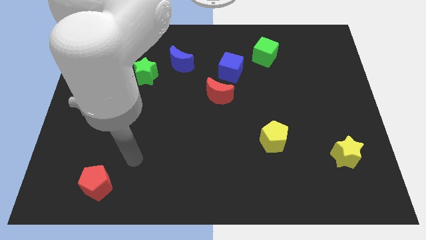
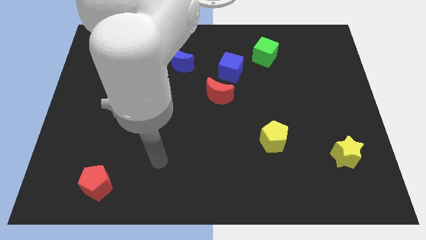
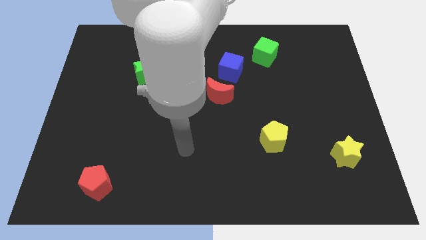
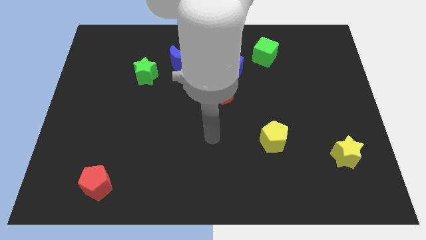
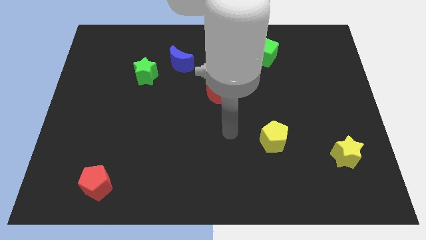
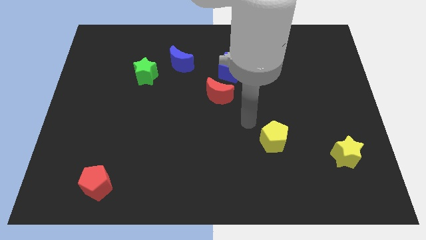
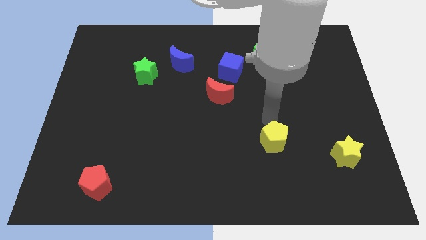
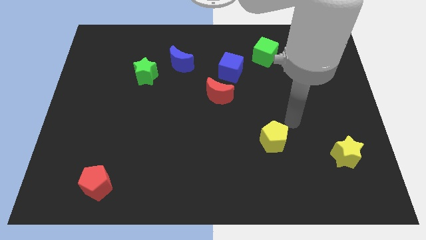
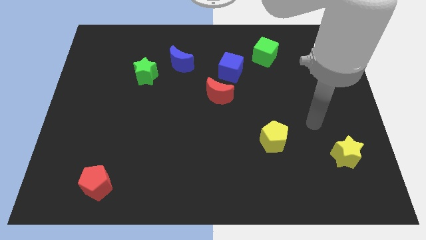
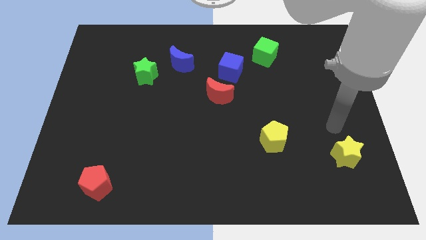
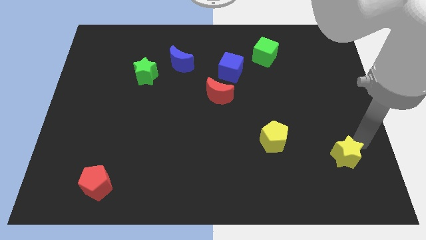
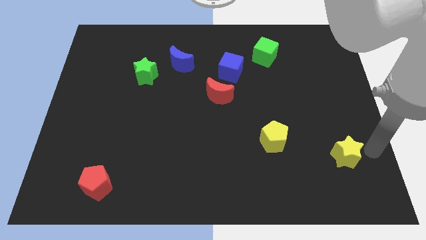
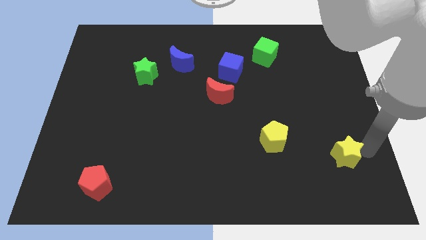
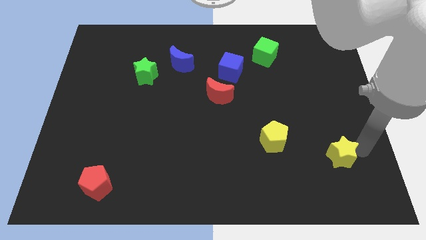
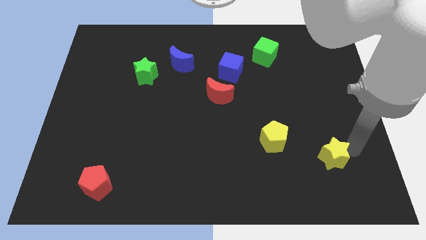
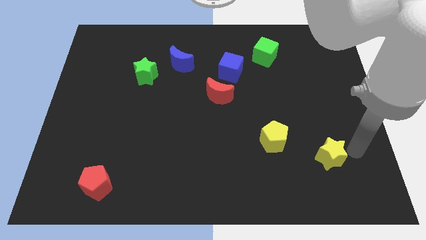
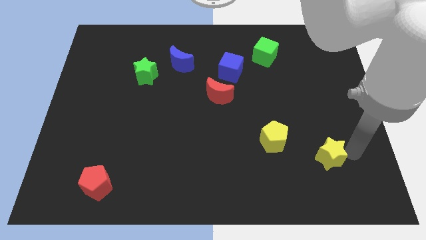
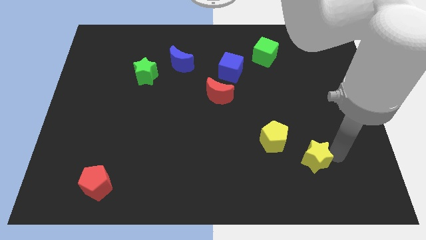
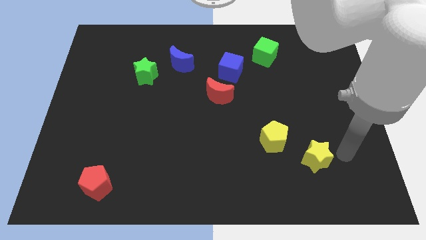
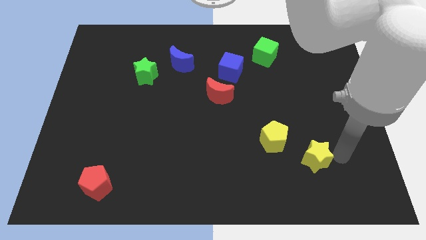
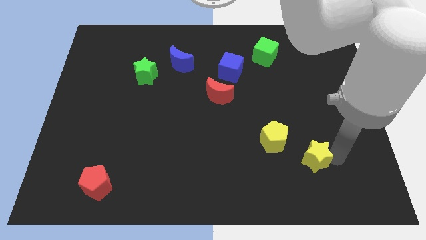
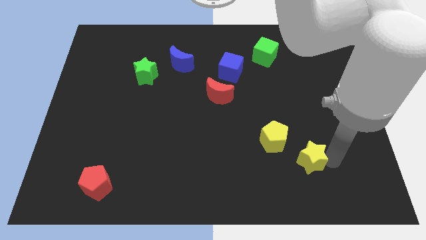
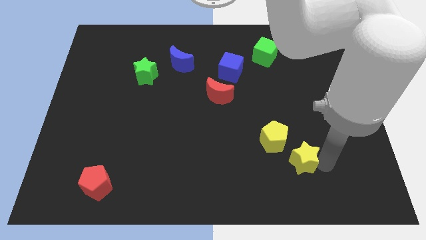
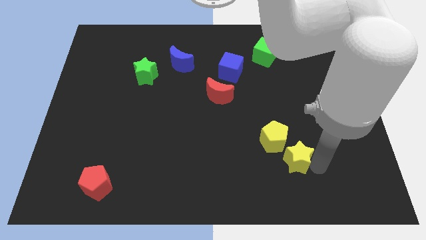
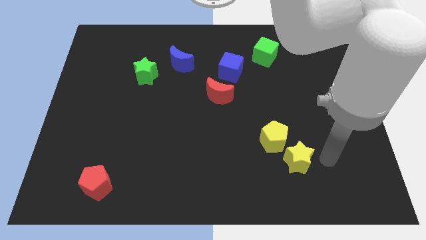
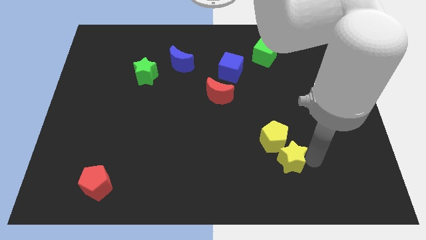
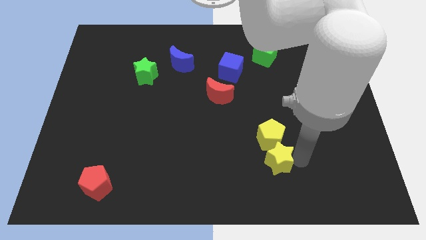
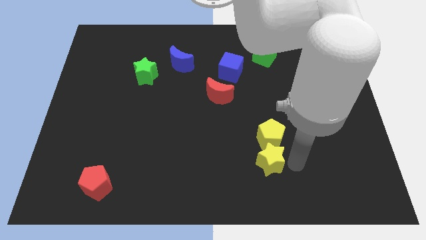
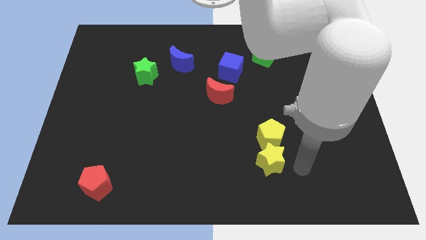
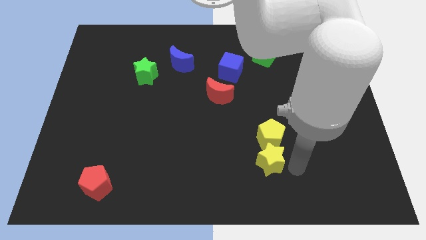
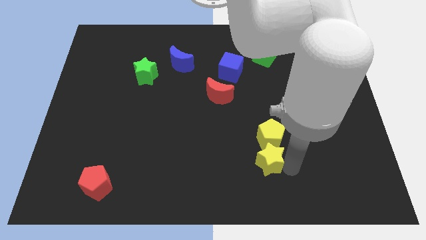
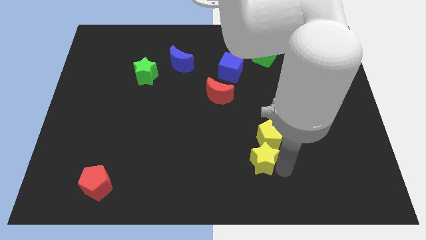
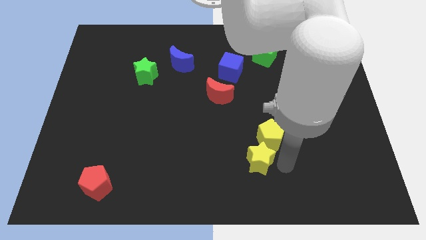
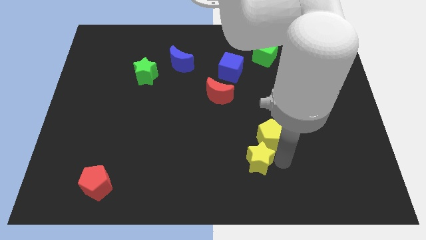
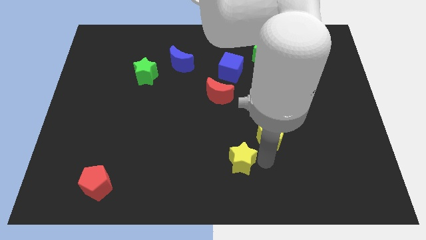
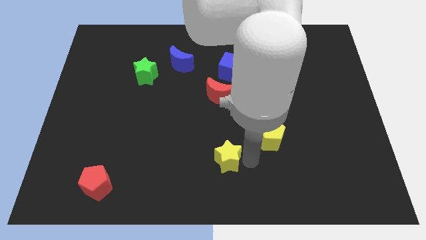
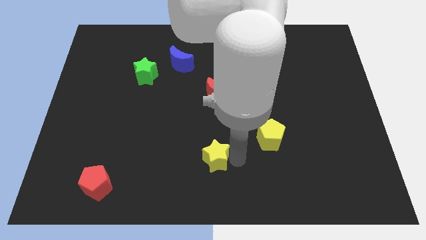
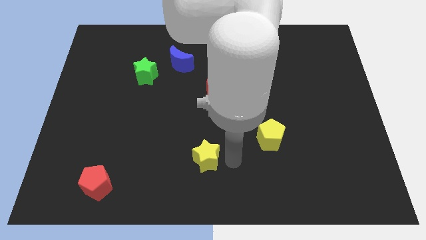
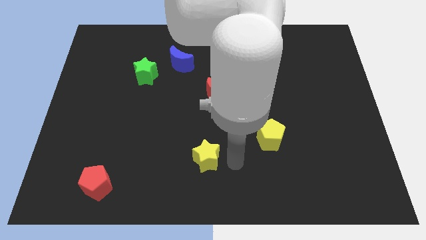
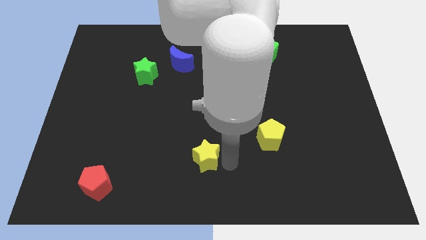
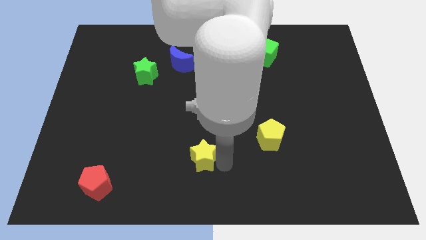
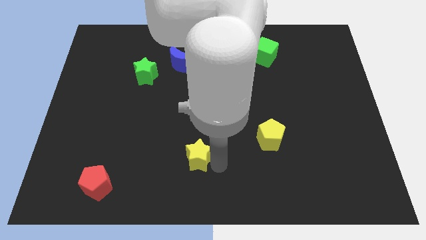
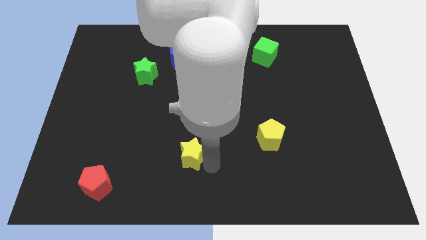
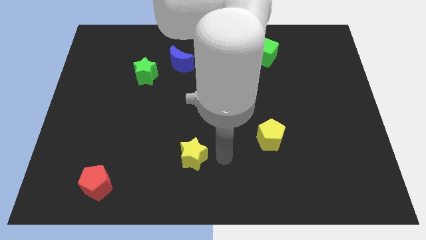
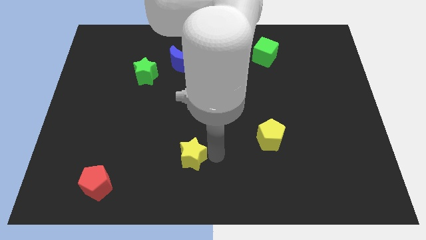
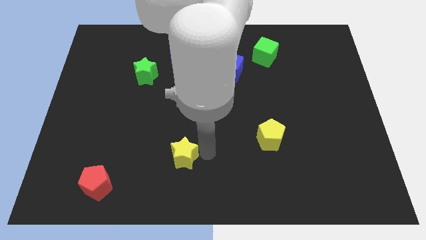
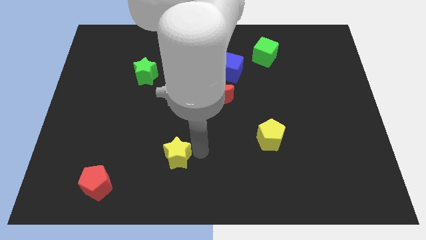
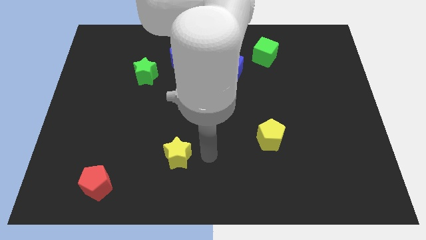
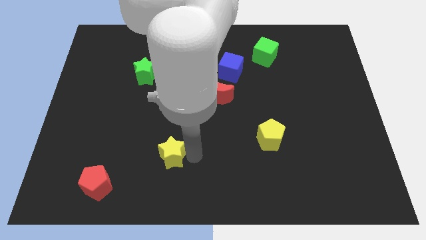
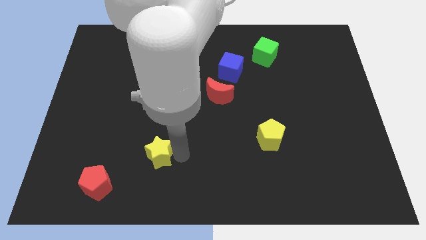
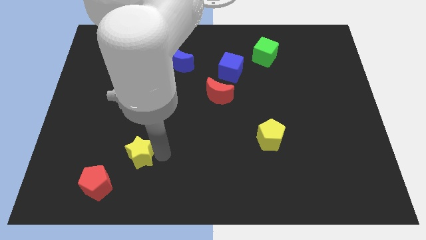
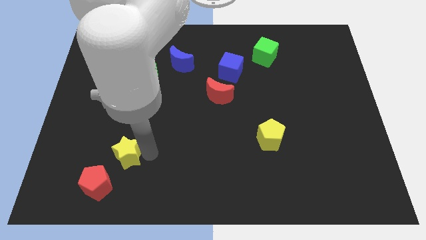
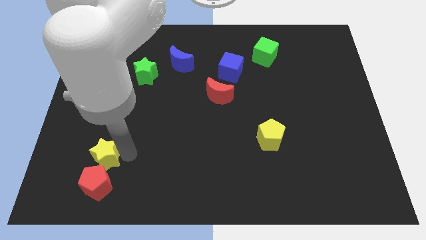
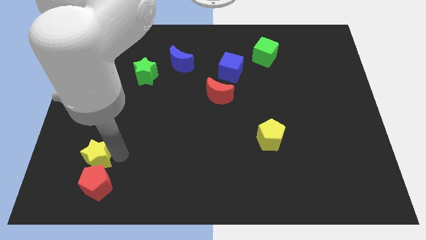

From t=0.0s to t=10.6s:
put the yellow star diagonally up and to the left of the red pentagon

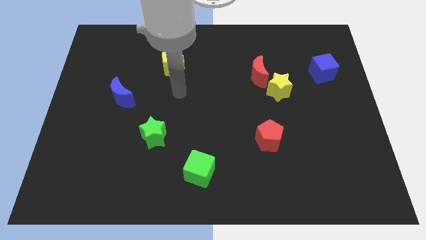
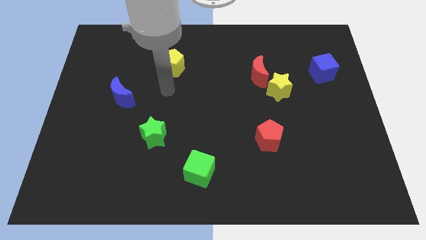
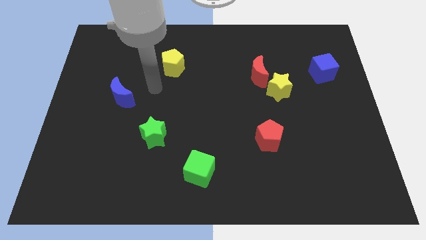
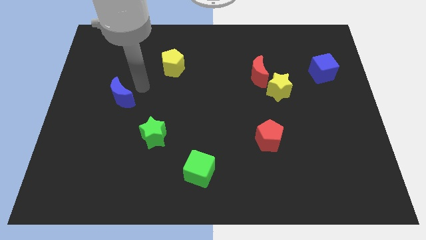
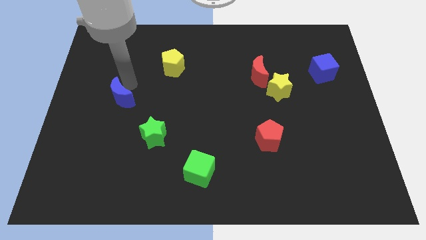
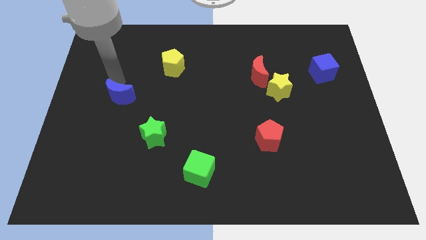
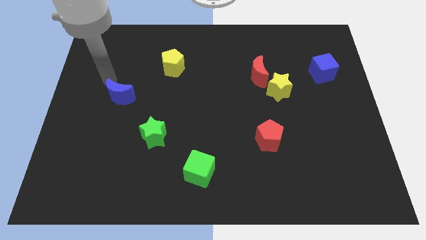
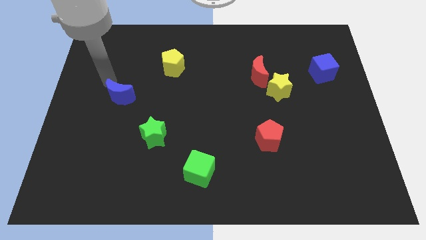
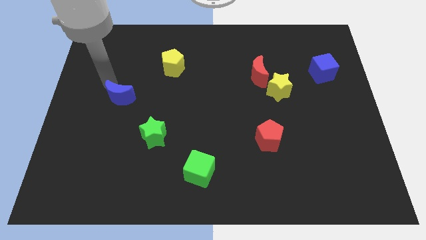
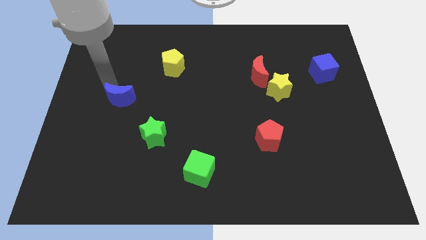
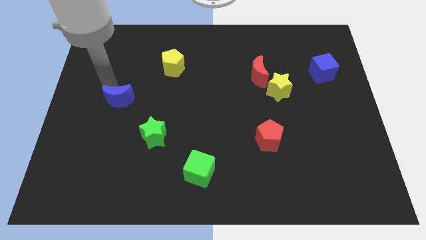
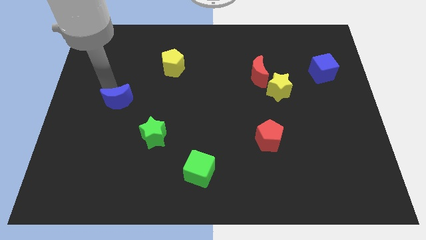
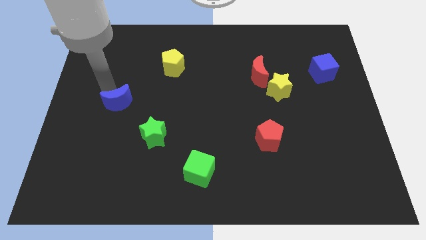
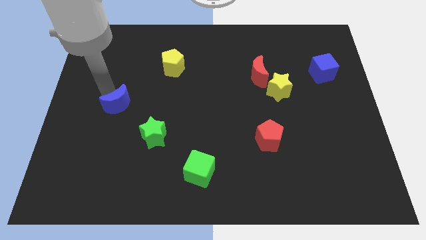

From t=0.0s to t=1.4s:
slide the blue moon to the top left side of the green star
